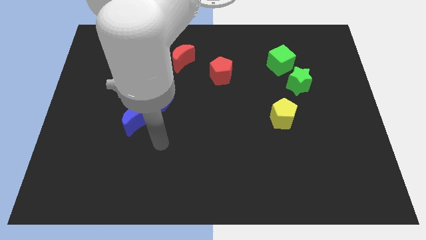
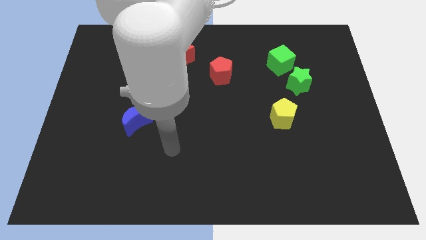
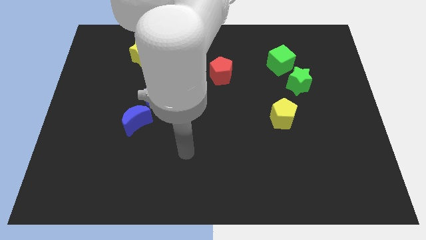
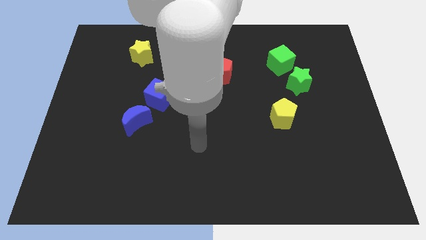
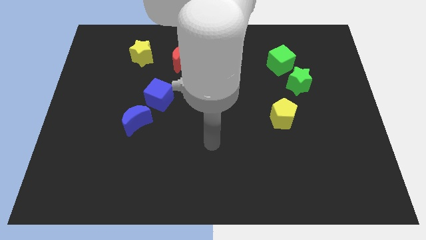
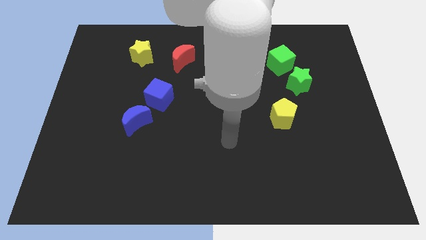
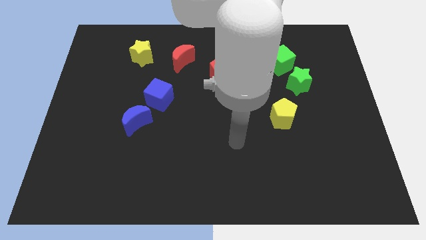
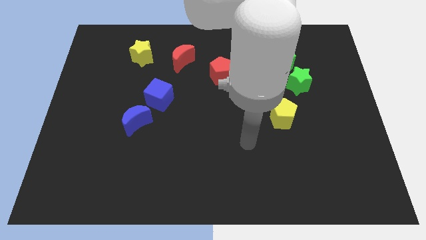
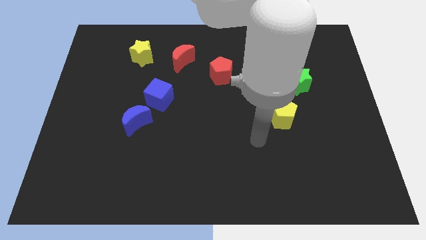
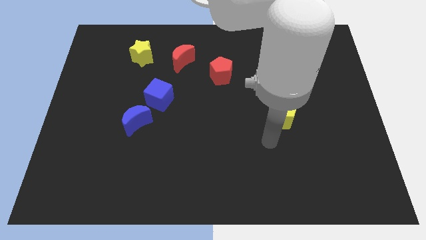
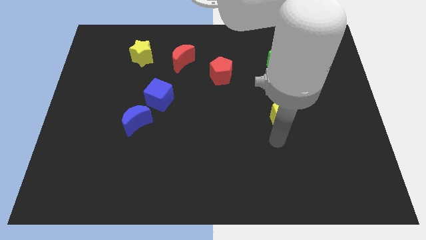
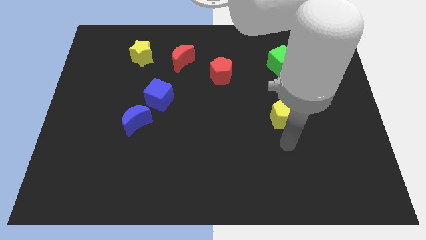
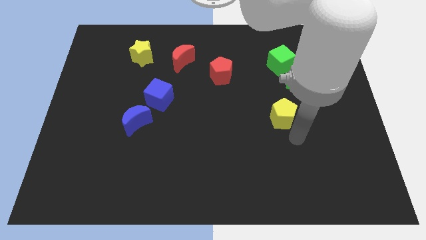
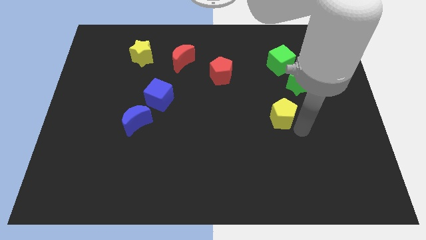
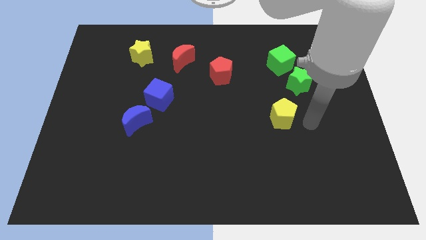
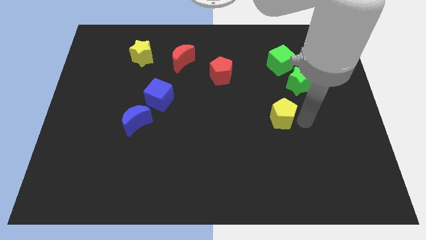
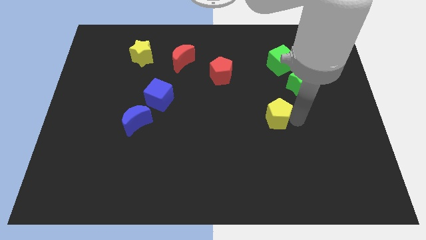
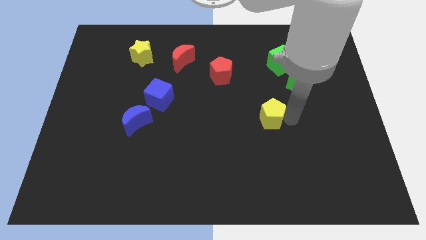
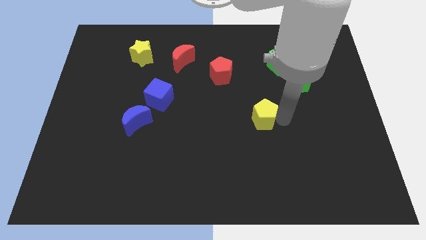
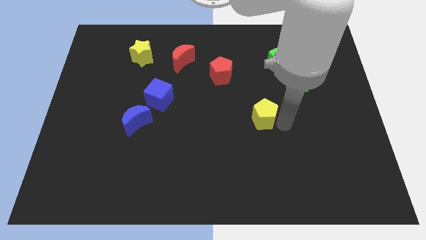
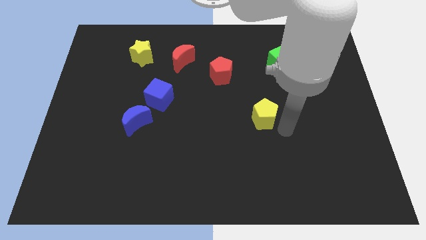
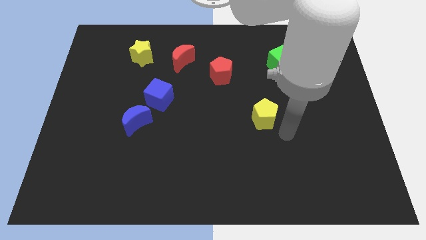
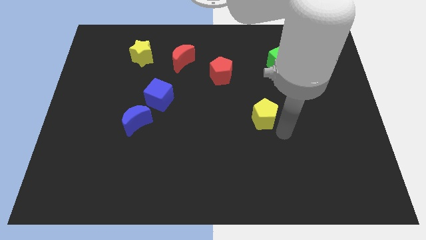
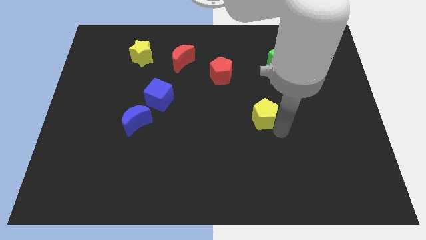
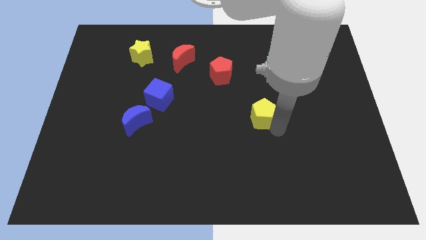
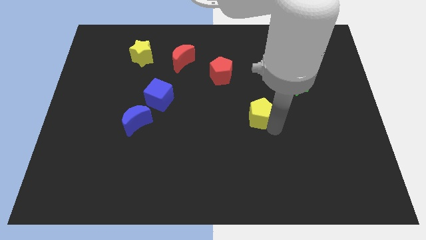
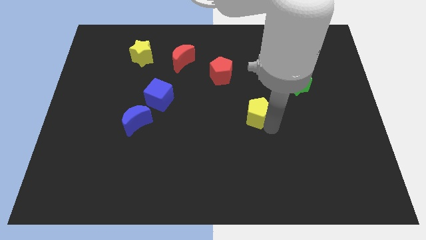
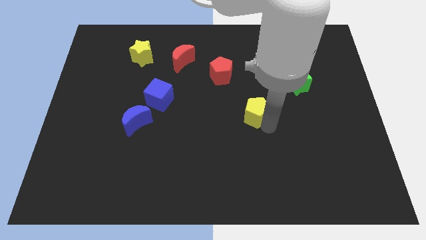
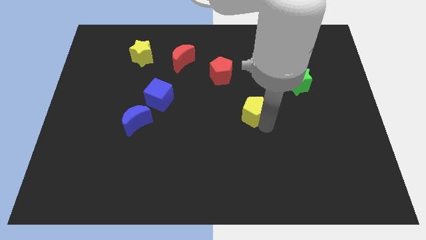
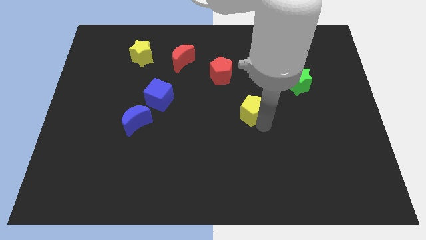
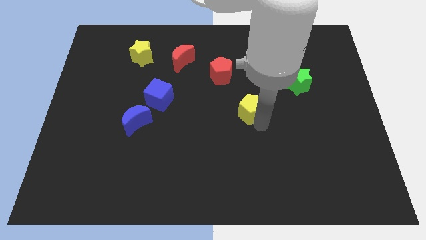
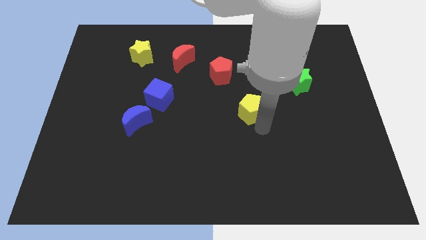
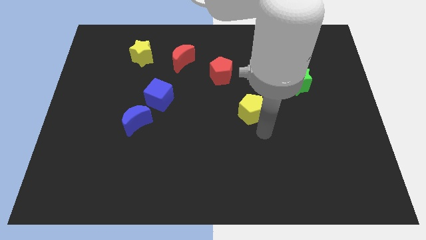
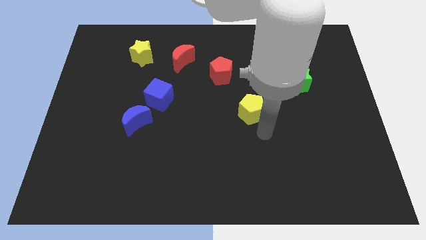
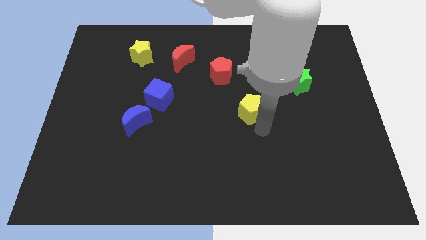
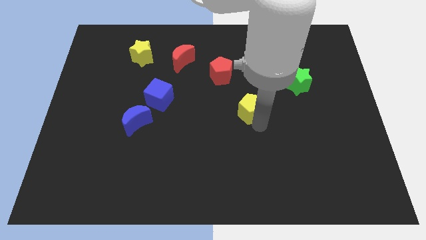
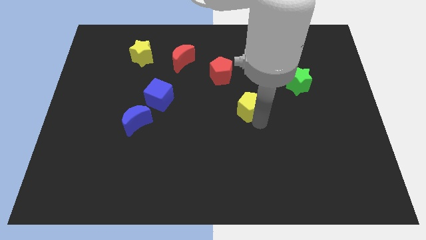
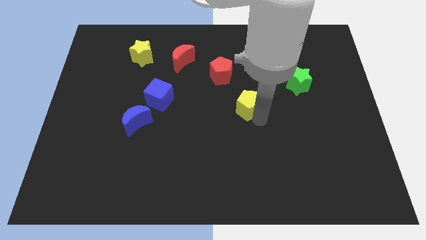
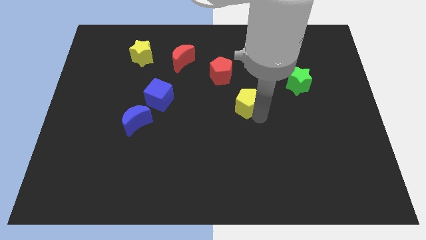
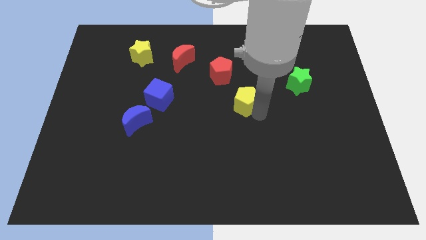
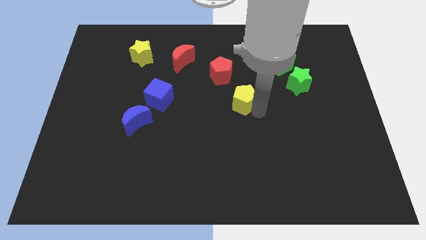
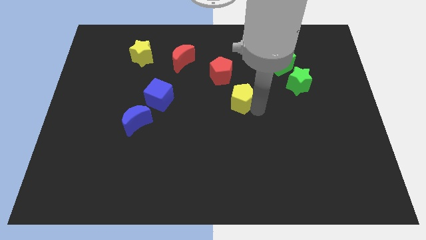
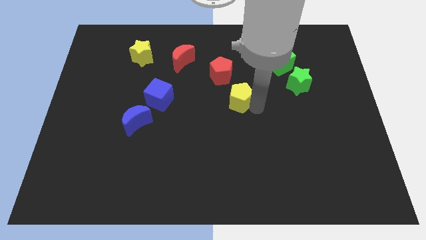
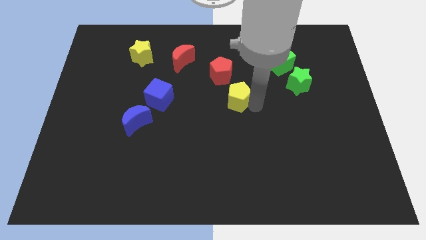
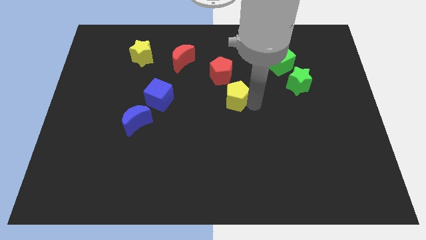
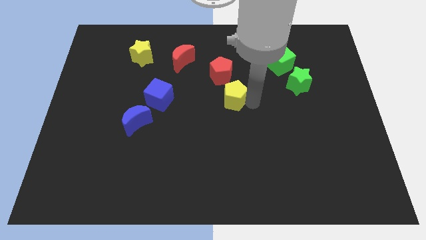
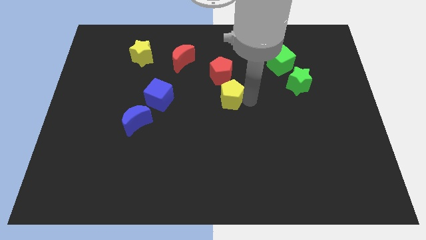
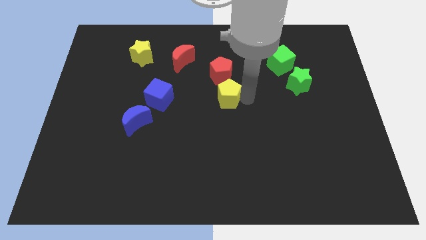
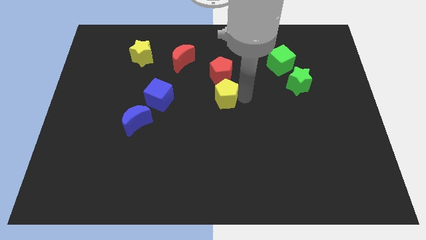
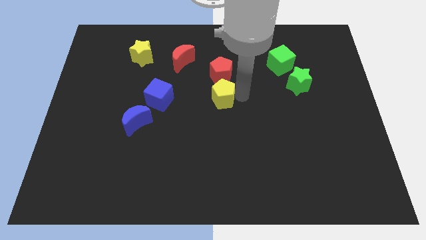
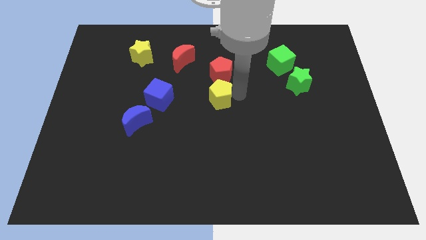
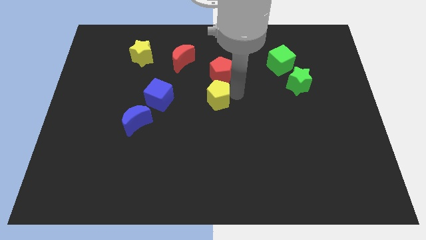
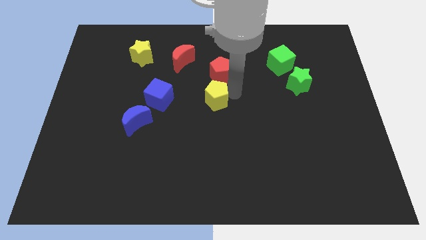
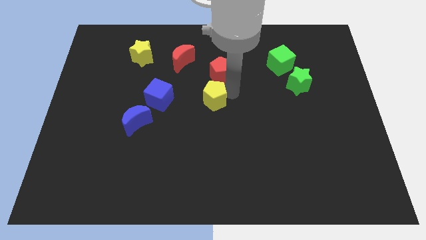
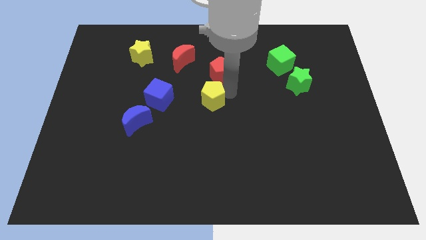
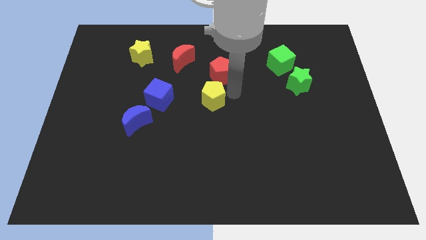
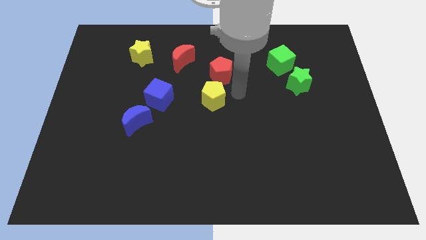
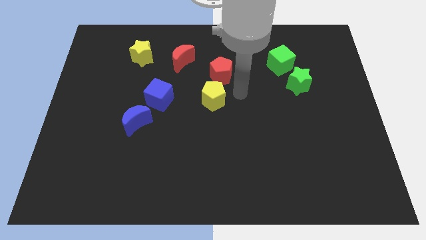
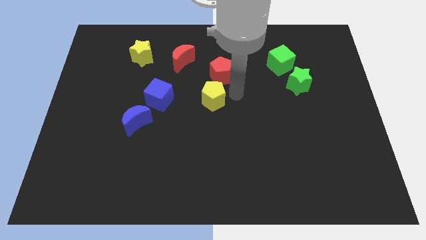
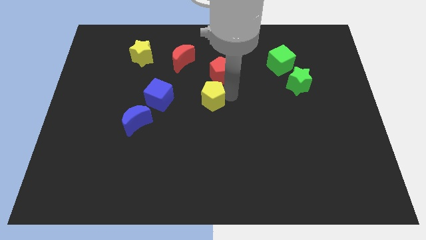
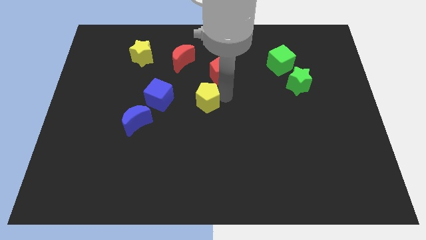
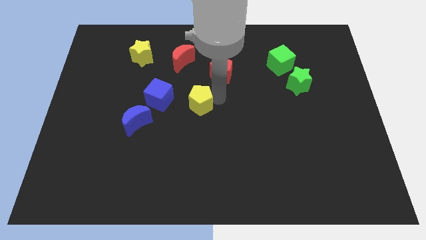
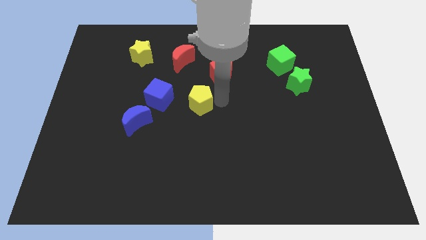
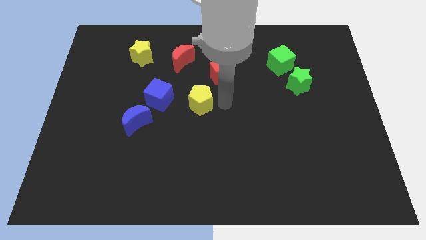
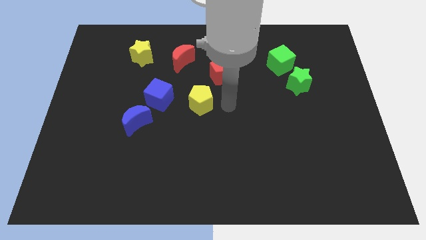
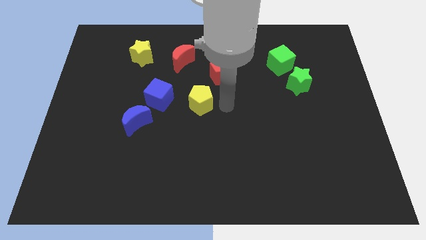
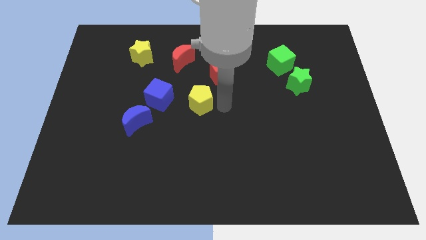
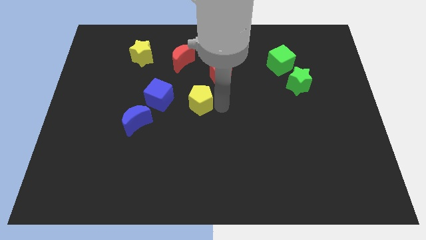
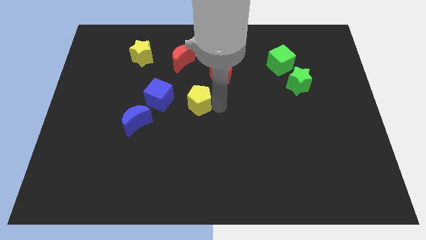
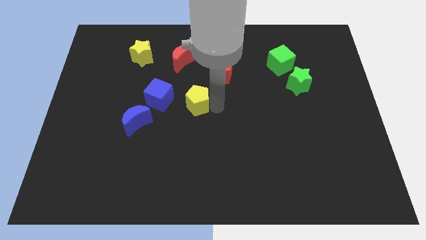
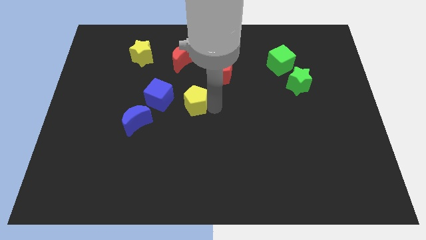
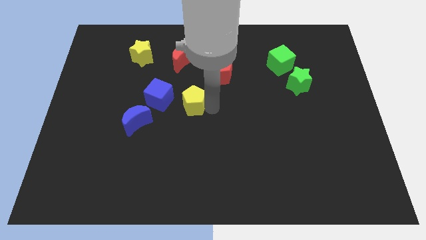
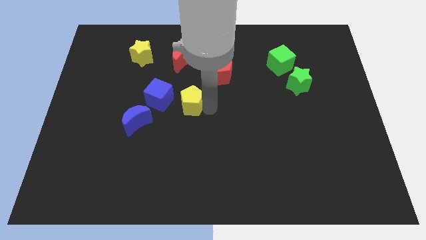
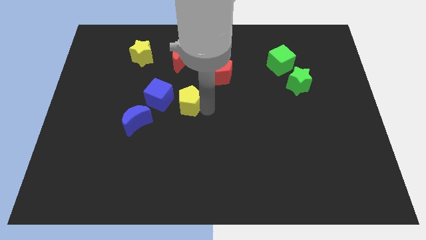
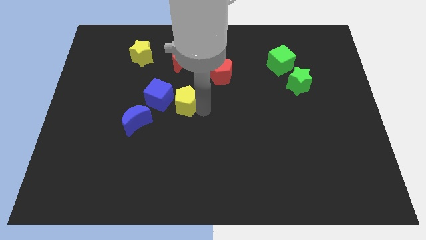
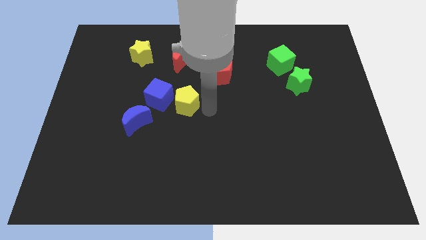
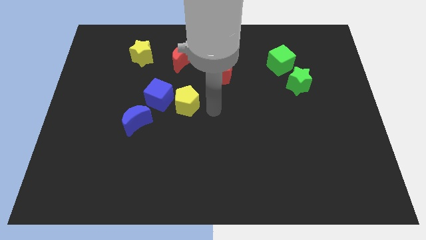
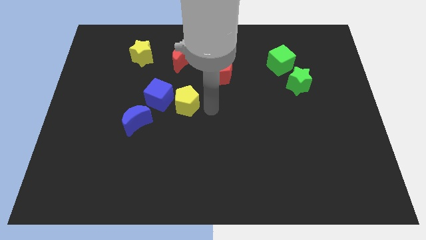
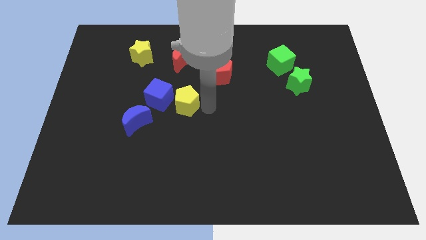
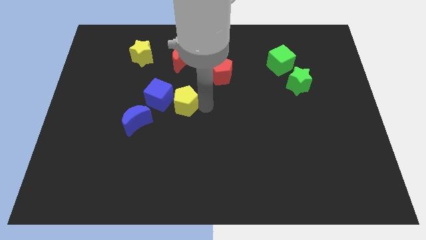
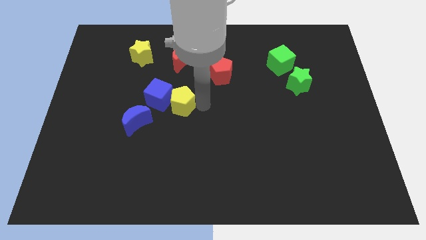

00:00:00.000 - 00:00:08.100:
slide the yellow pentagon towards the blue cube
